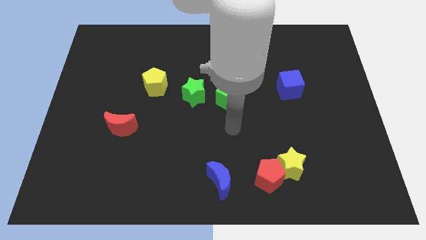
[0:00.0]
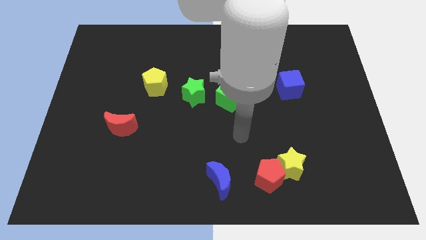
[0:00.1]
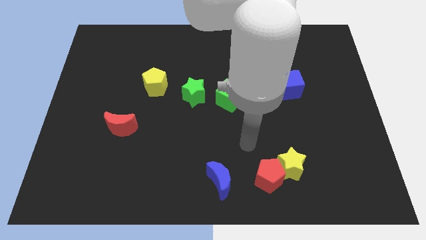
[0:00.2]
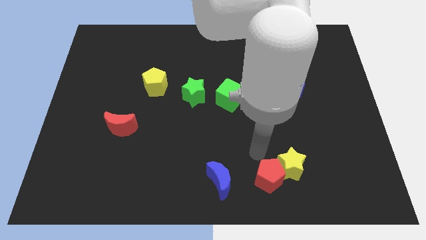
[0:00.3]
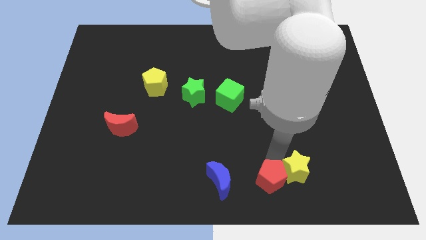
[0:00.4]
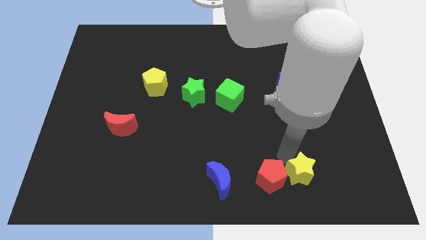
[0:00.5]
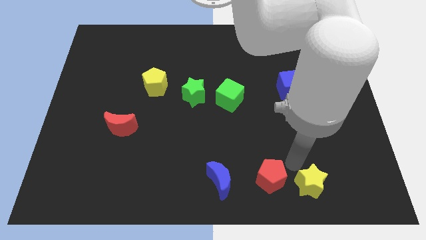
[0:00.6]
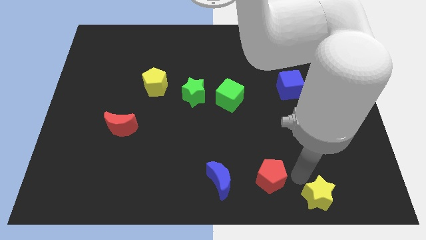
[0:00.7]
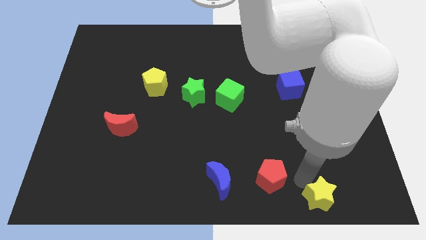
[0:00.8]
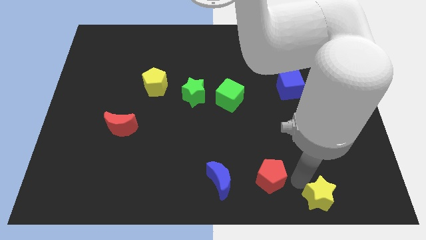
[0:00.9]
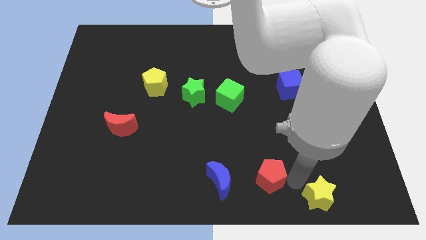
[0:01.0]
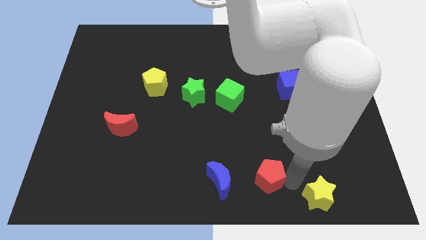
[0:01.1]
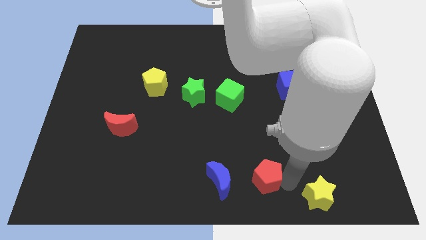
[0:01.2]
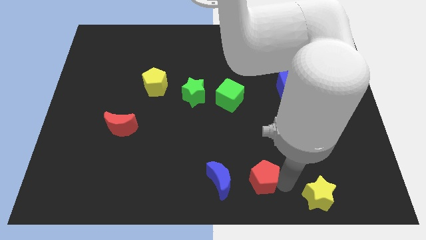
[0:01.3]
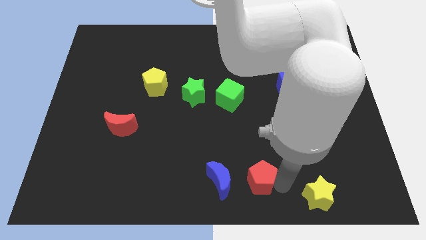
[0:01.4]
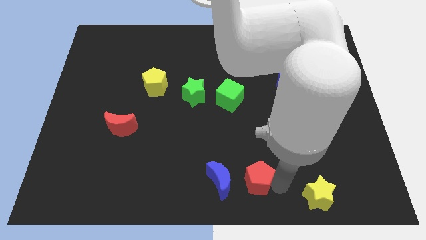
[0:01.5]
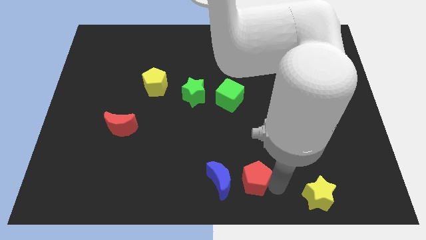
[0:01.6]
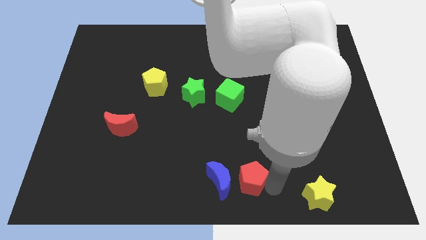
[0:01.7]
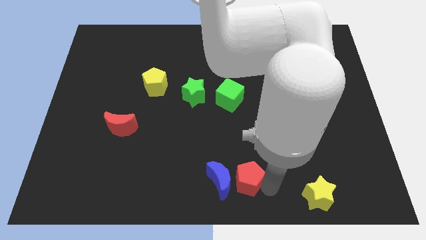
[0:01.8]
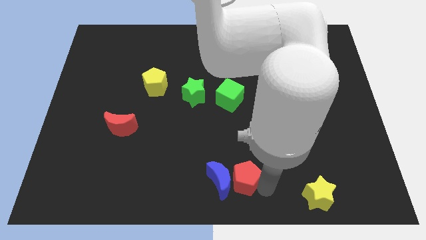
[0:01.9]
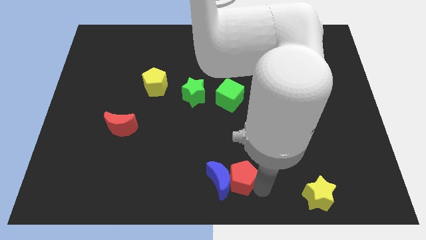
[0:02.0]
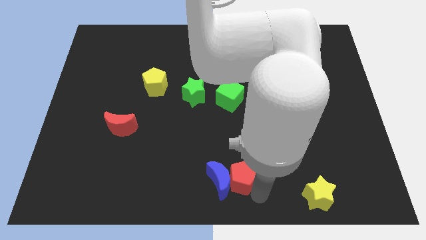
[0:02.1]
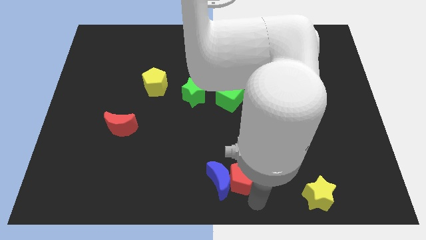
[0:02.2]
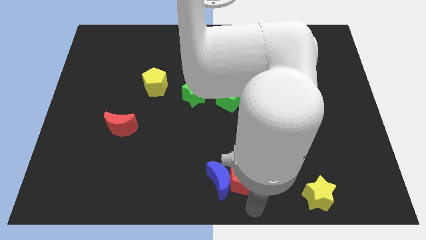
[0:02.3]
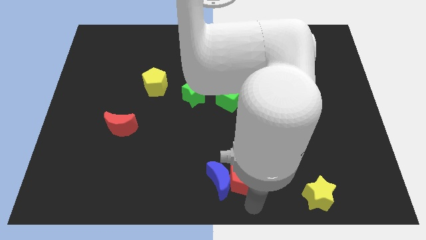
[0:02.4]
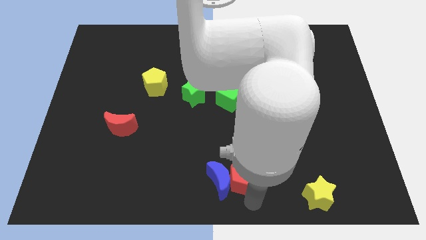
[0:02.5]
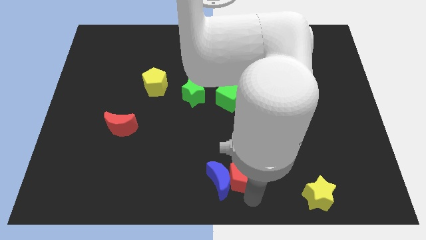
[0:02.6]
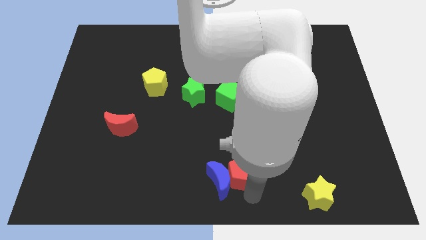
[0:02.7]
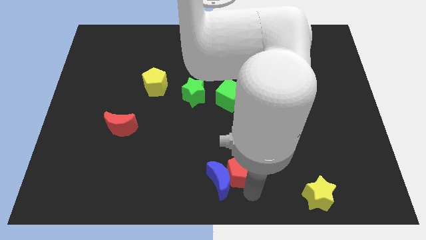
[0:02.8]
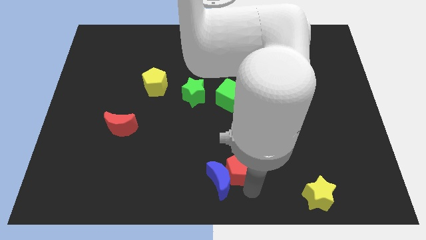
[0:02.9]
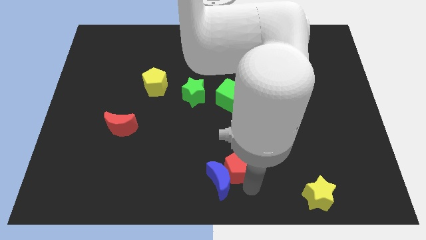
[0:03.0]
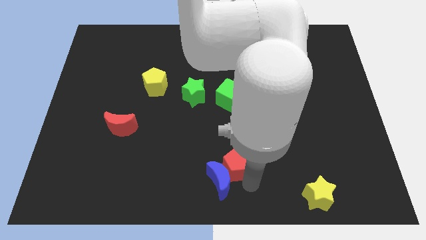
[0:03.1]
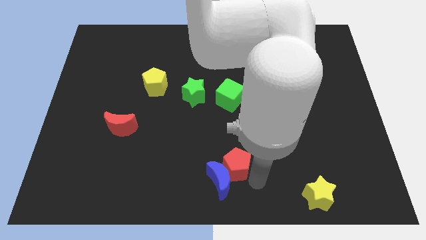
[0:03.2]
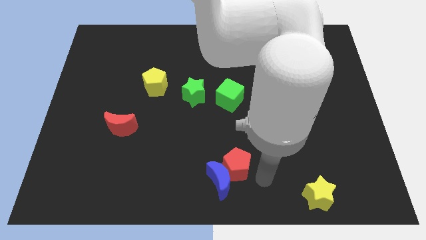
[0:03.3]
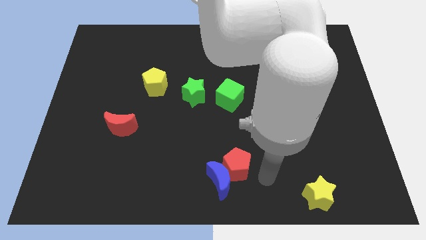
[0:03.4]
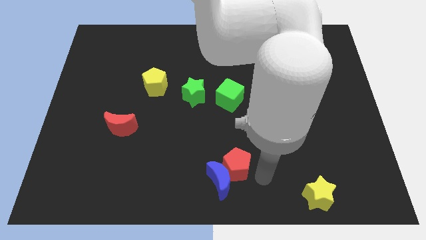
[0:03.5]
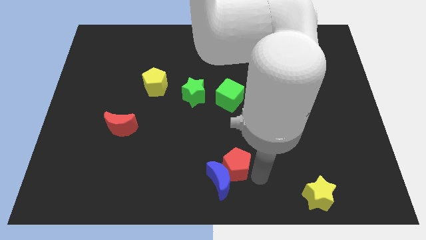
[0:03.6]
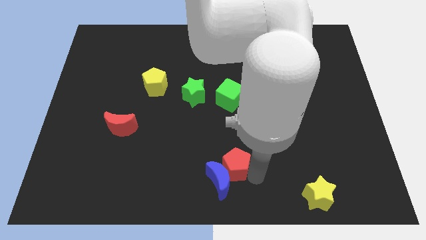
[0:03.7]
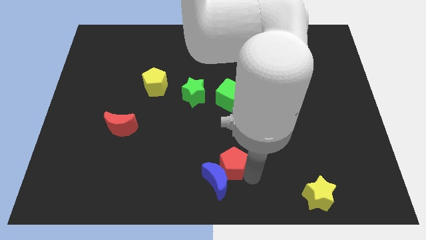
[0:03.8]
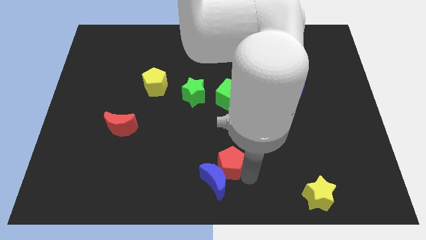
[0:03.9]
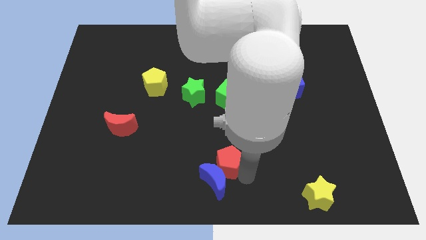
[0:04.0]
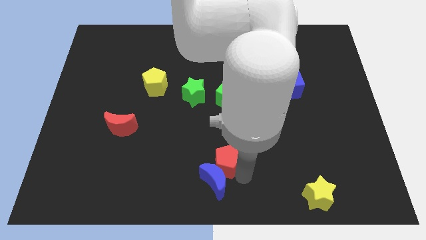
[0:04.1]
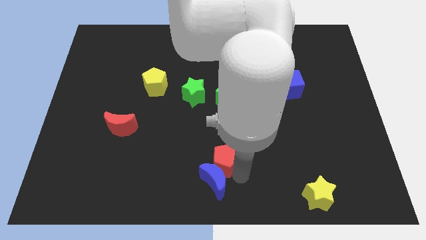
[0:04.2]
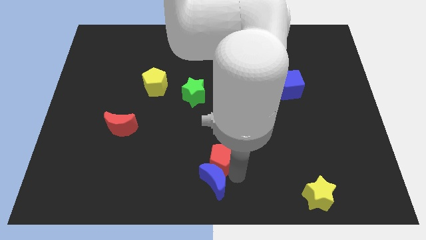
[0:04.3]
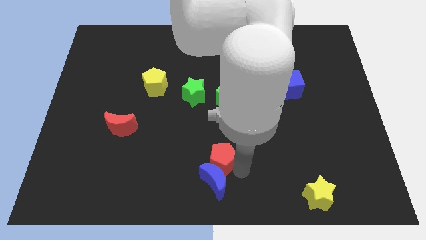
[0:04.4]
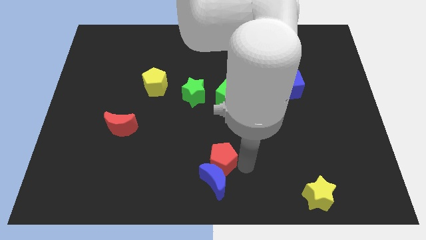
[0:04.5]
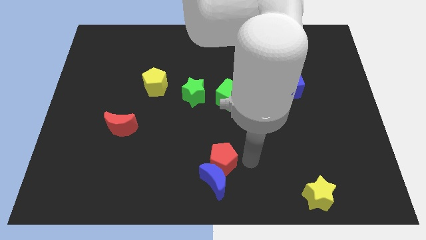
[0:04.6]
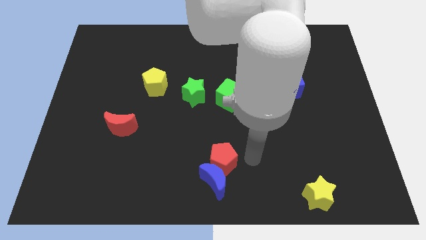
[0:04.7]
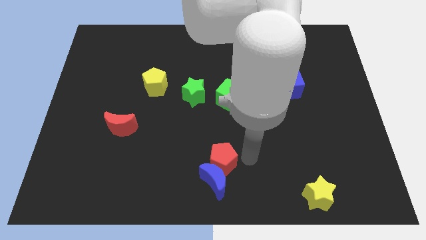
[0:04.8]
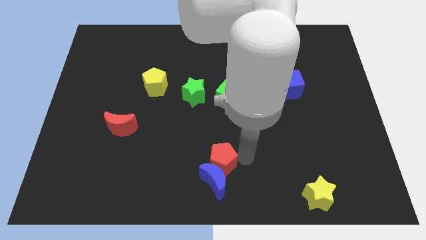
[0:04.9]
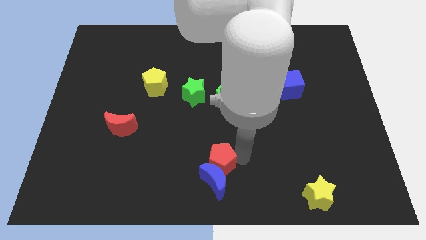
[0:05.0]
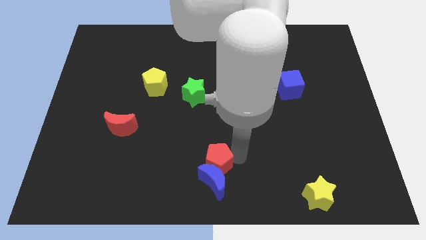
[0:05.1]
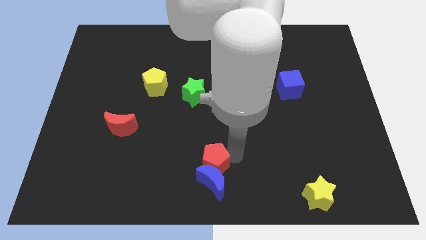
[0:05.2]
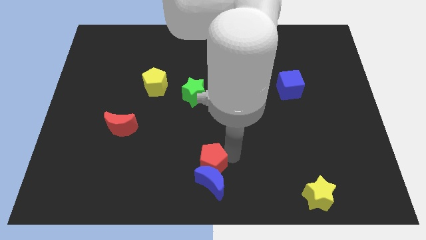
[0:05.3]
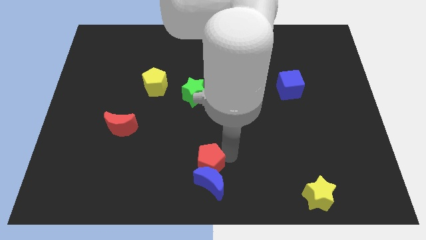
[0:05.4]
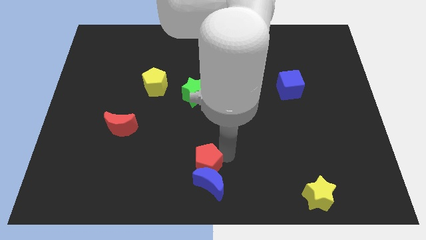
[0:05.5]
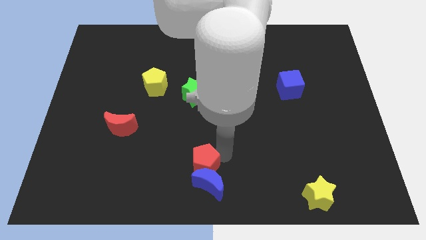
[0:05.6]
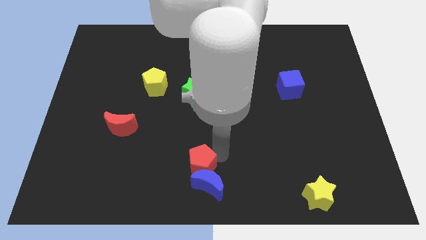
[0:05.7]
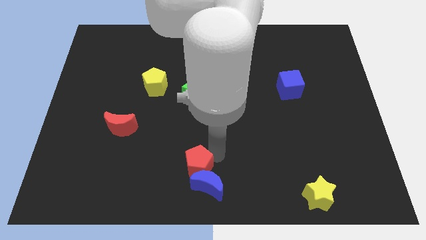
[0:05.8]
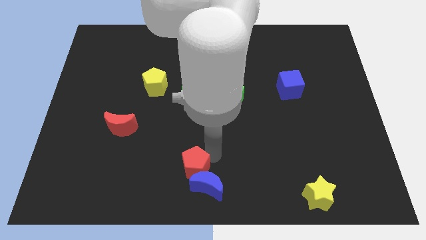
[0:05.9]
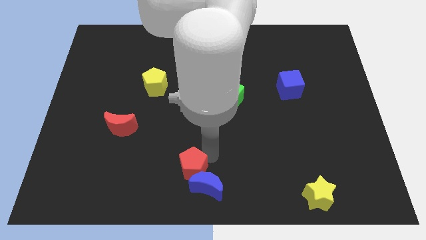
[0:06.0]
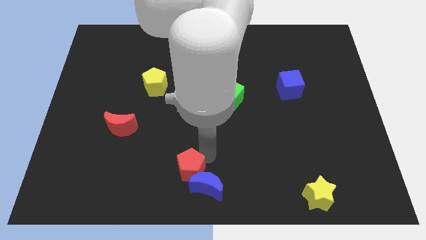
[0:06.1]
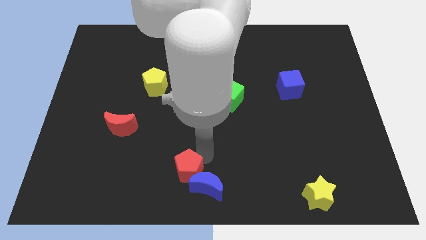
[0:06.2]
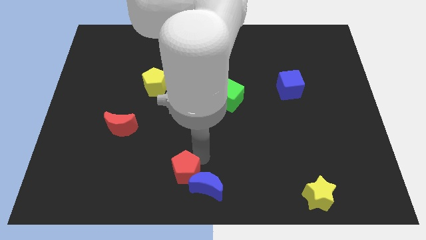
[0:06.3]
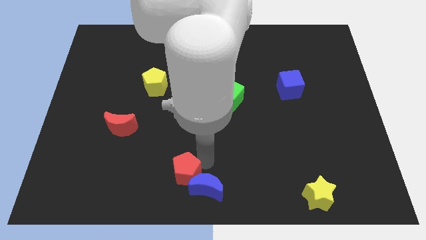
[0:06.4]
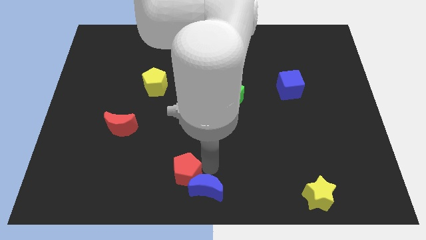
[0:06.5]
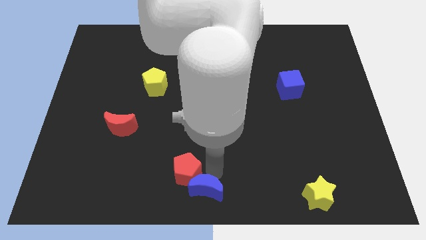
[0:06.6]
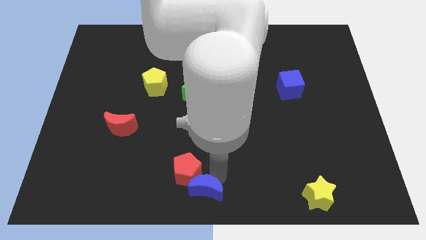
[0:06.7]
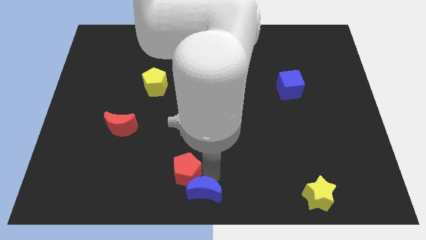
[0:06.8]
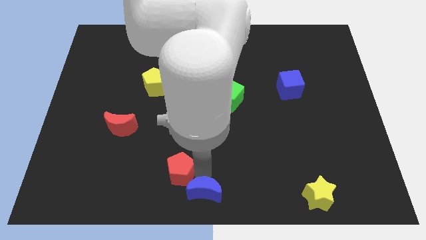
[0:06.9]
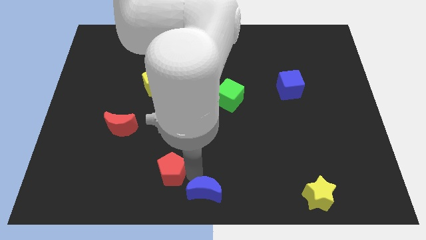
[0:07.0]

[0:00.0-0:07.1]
slide the red pentagon left

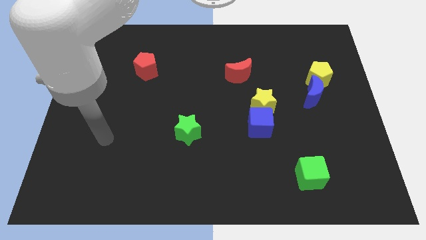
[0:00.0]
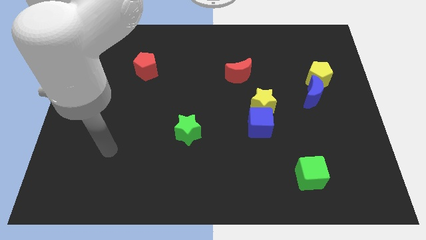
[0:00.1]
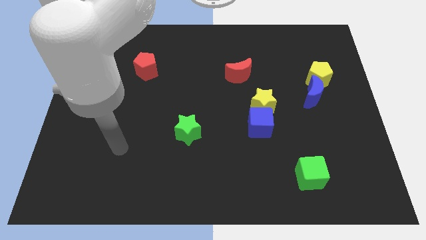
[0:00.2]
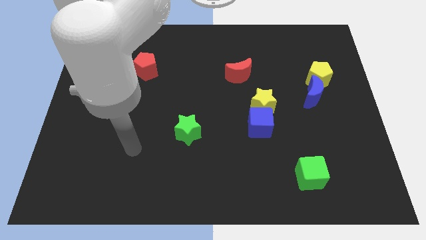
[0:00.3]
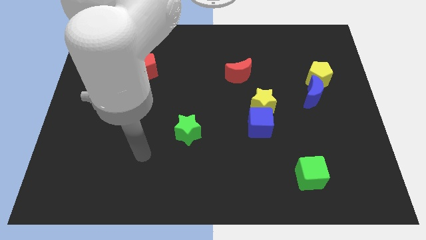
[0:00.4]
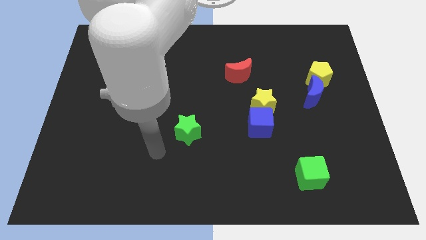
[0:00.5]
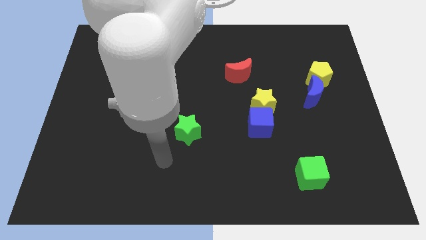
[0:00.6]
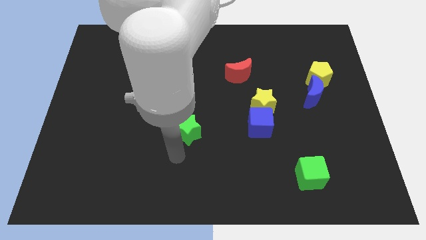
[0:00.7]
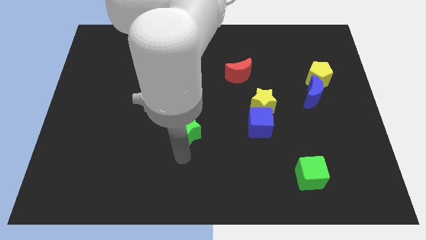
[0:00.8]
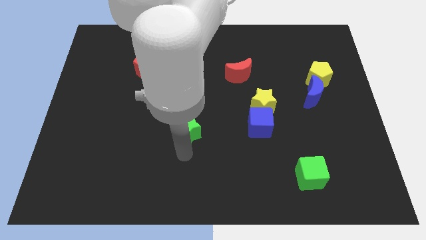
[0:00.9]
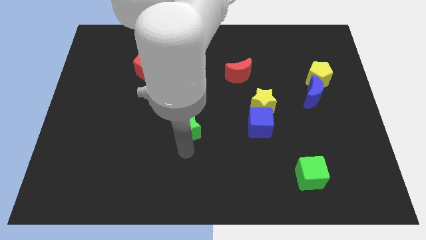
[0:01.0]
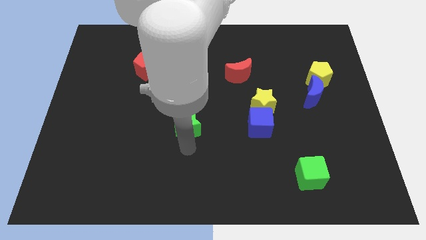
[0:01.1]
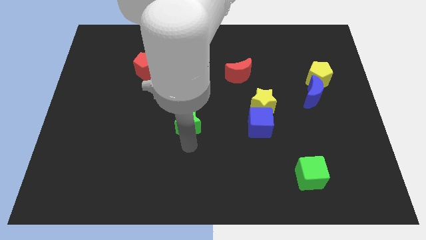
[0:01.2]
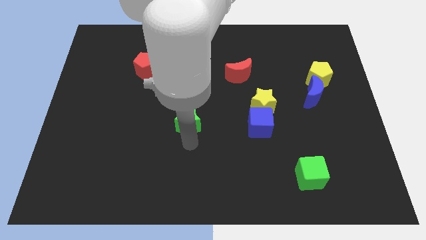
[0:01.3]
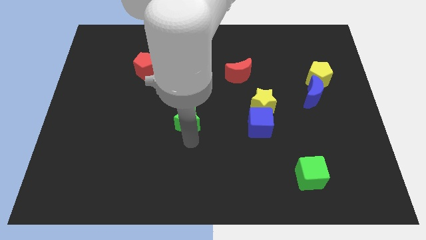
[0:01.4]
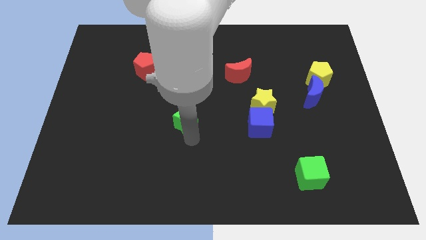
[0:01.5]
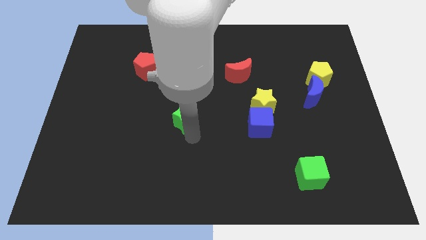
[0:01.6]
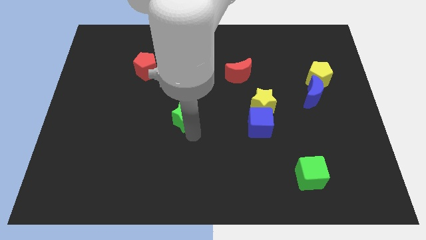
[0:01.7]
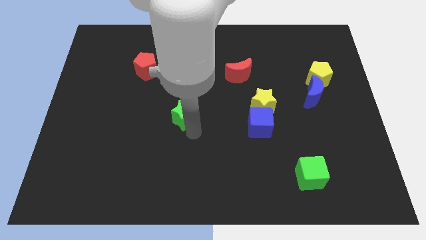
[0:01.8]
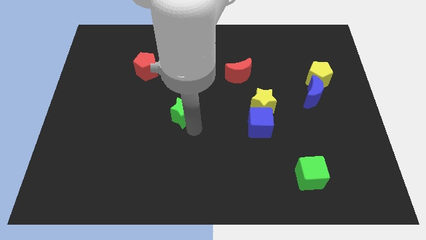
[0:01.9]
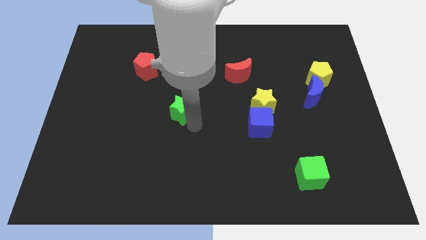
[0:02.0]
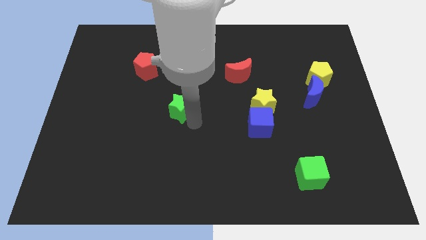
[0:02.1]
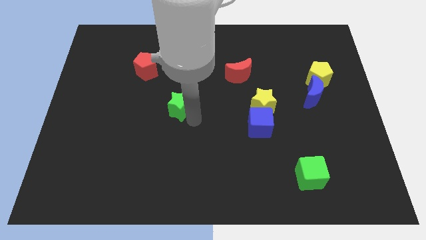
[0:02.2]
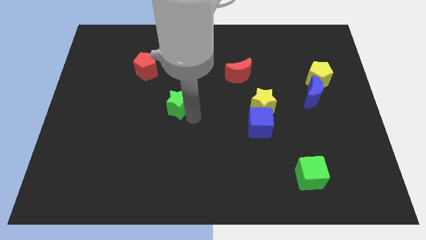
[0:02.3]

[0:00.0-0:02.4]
slide the green star upwards a little bit
